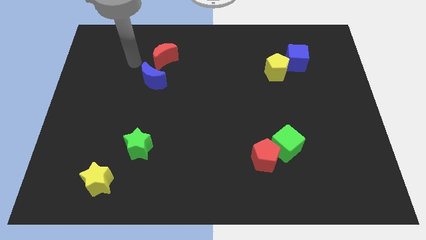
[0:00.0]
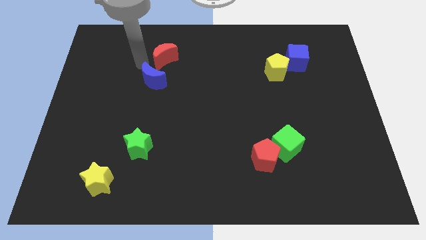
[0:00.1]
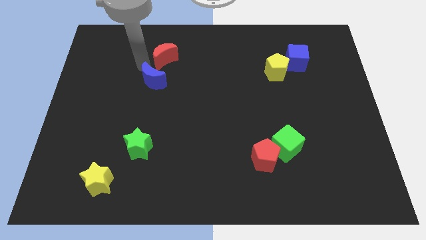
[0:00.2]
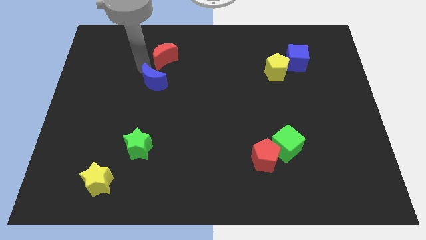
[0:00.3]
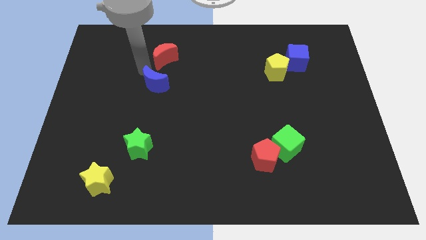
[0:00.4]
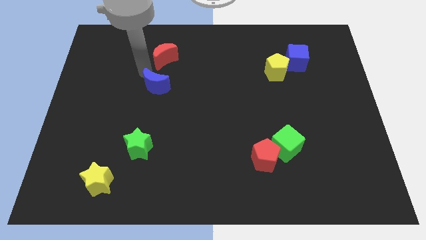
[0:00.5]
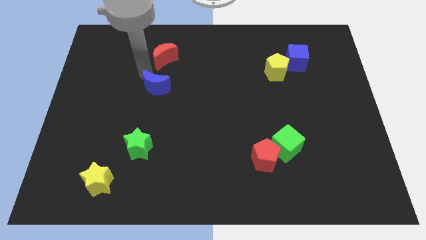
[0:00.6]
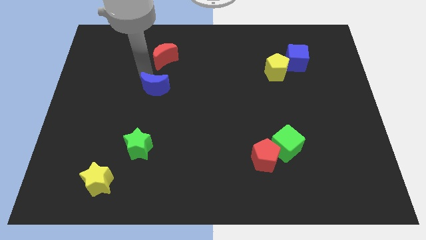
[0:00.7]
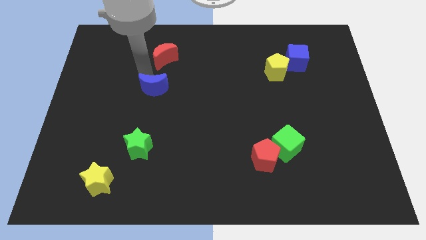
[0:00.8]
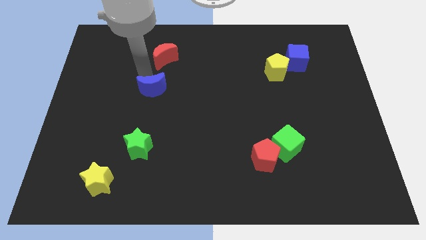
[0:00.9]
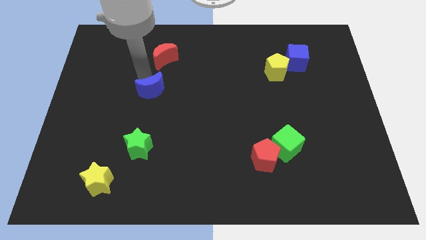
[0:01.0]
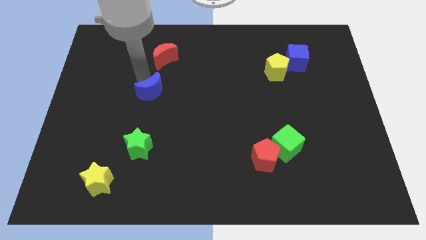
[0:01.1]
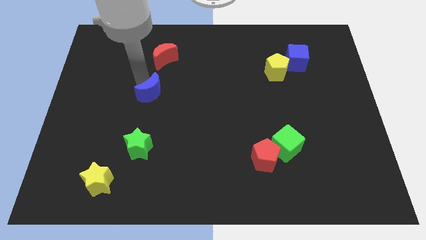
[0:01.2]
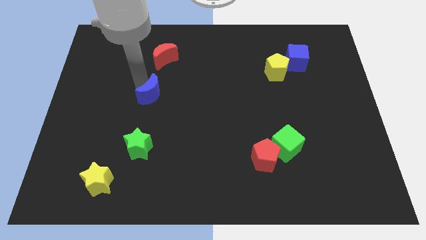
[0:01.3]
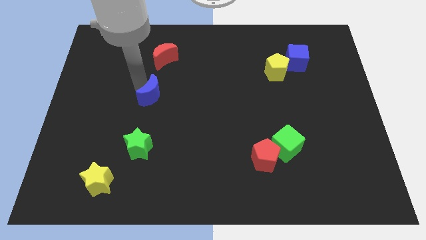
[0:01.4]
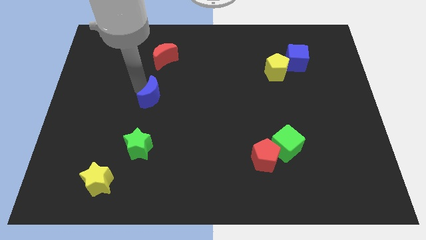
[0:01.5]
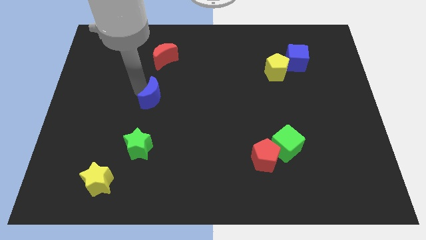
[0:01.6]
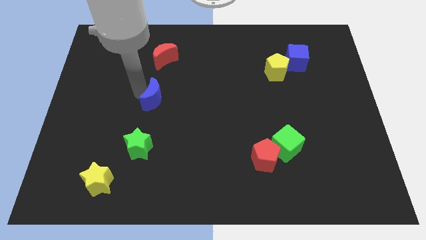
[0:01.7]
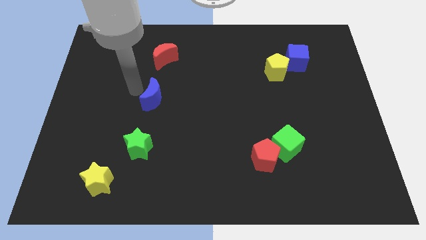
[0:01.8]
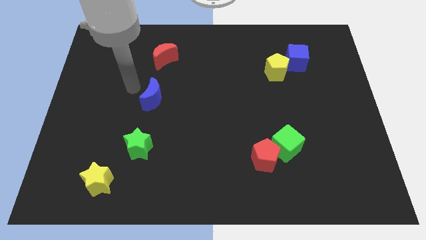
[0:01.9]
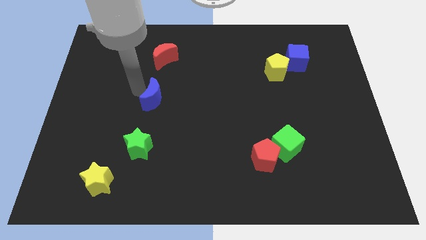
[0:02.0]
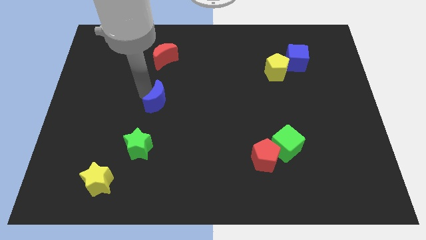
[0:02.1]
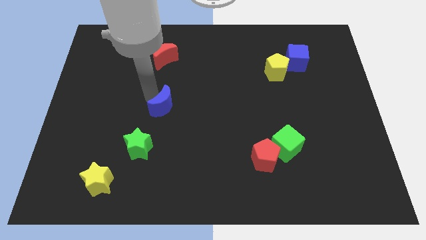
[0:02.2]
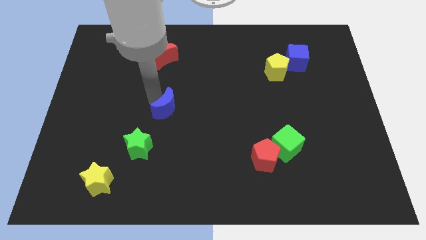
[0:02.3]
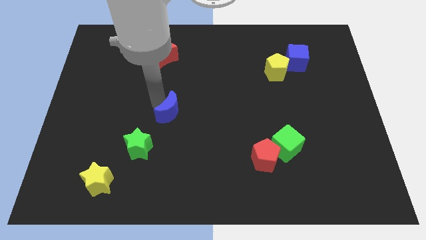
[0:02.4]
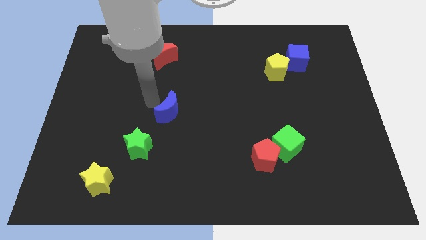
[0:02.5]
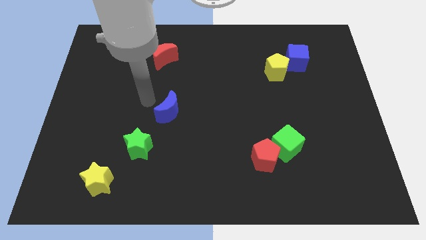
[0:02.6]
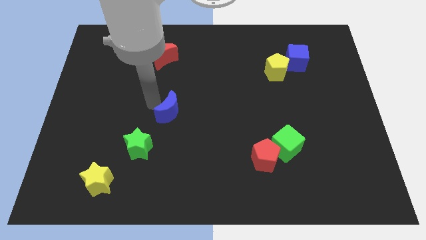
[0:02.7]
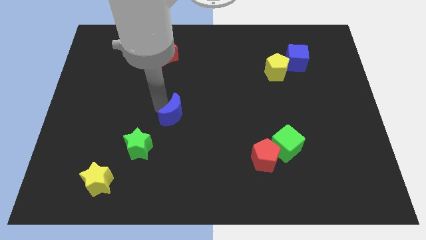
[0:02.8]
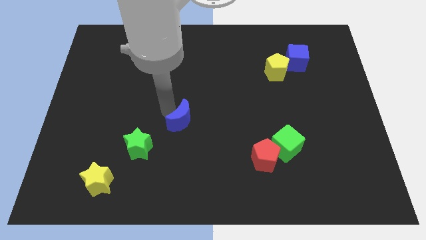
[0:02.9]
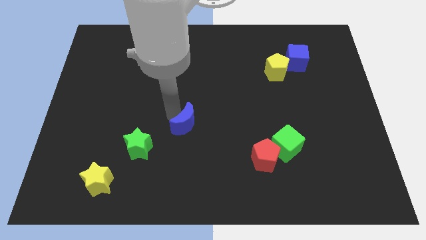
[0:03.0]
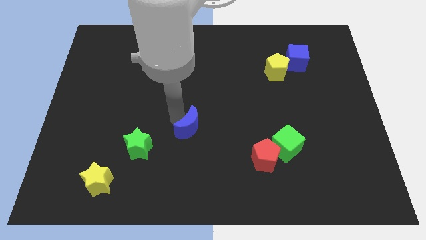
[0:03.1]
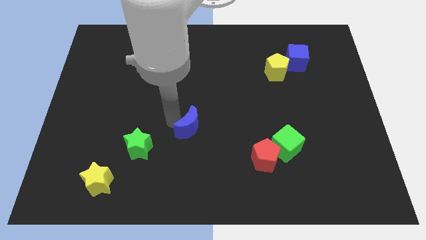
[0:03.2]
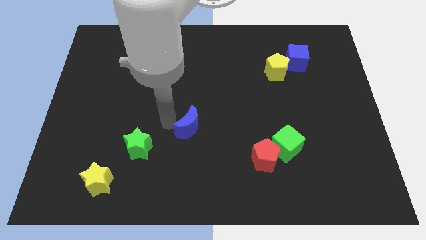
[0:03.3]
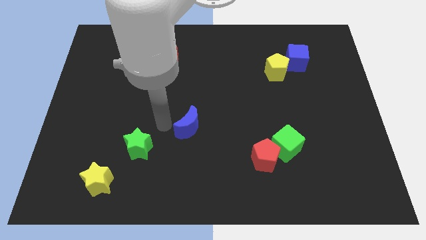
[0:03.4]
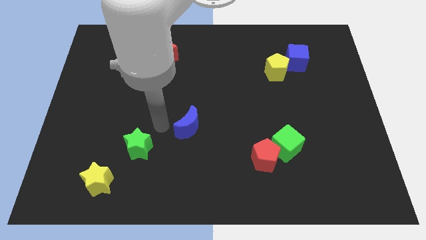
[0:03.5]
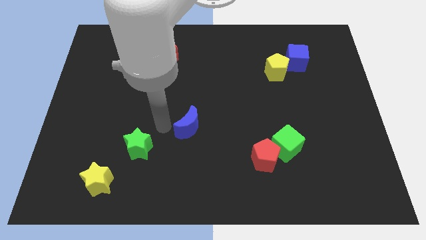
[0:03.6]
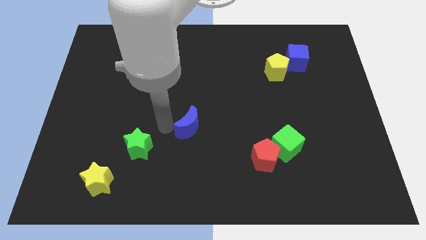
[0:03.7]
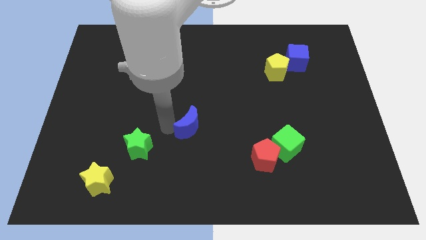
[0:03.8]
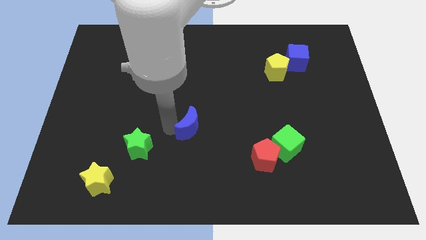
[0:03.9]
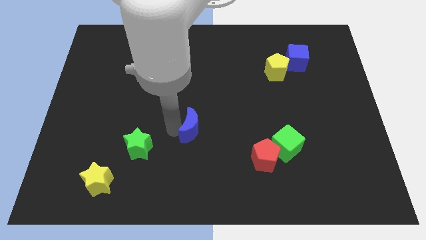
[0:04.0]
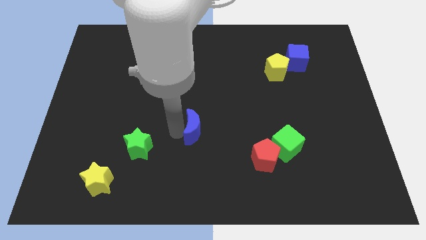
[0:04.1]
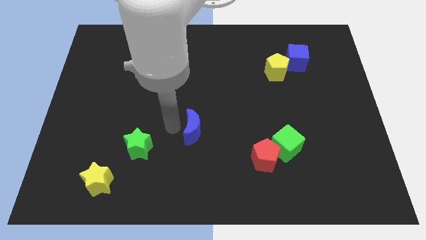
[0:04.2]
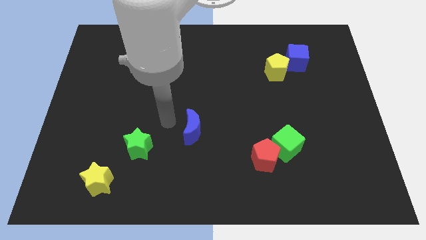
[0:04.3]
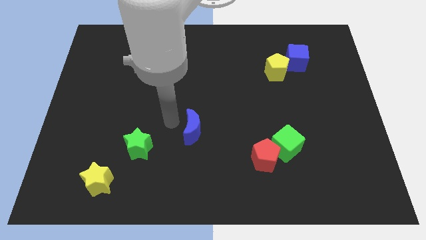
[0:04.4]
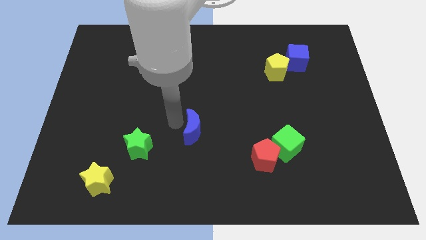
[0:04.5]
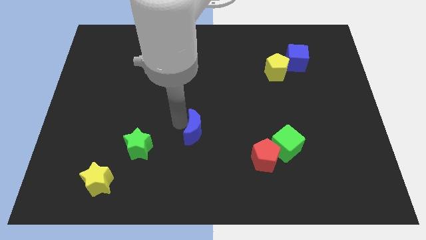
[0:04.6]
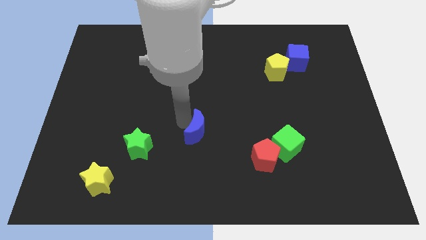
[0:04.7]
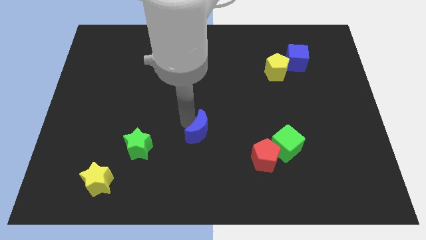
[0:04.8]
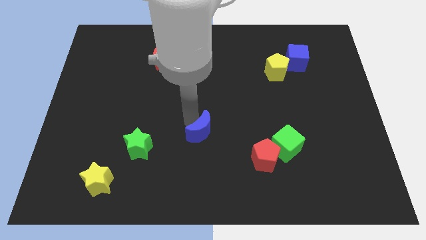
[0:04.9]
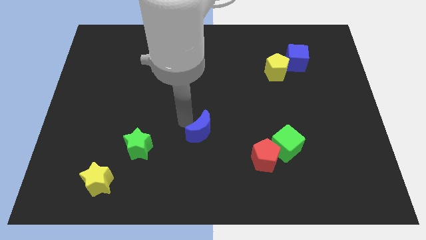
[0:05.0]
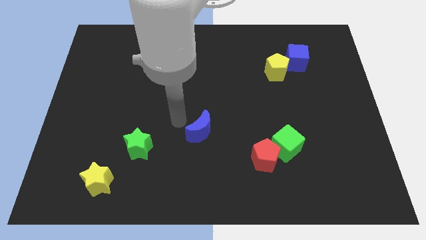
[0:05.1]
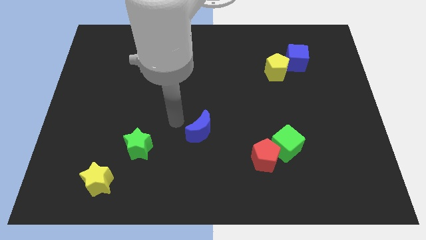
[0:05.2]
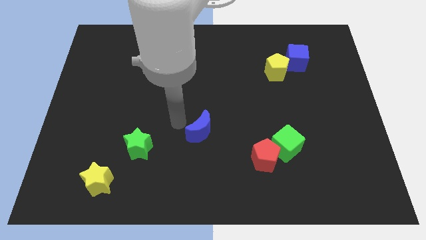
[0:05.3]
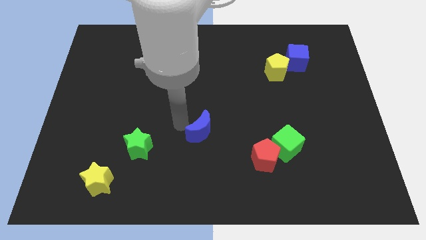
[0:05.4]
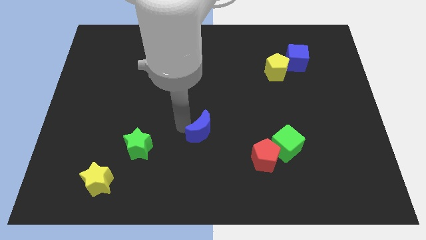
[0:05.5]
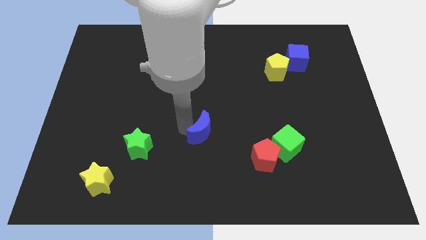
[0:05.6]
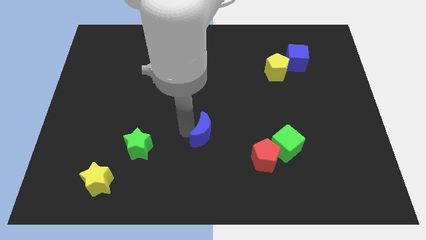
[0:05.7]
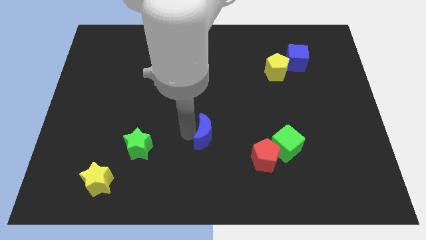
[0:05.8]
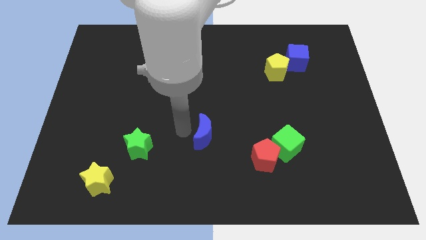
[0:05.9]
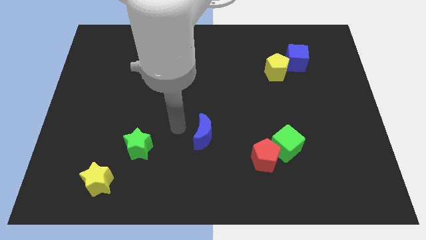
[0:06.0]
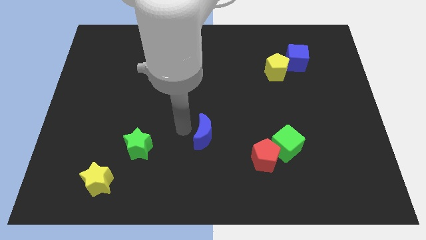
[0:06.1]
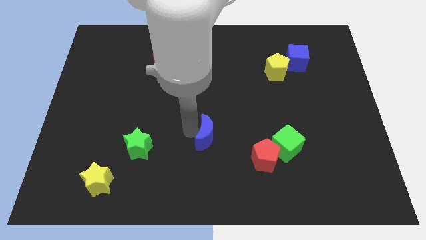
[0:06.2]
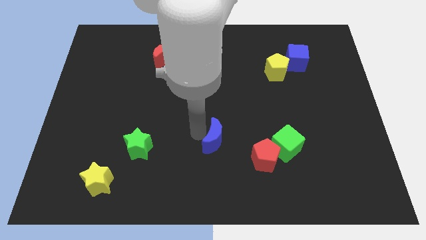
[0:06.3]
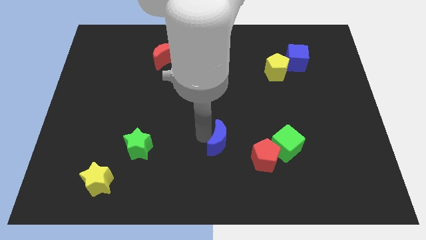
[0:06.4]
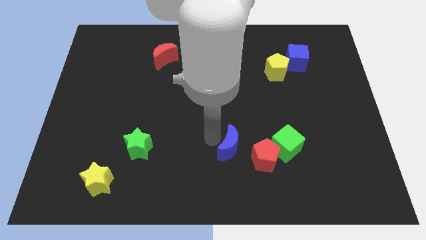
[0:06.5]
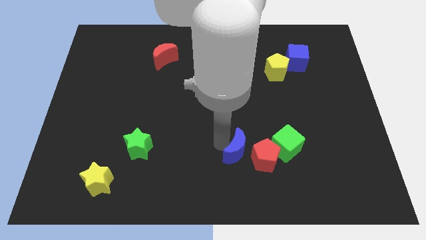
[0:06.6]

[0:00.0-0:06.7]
push the blue moon close to the red pentagon

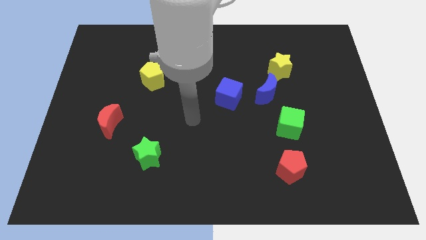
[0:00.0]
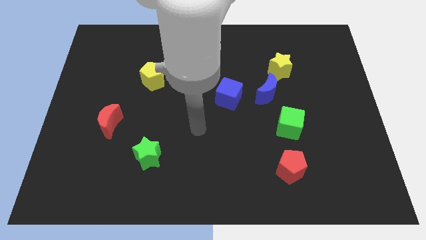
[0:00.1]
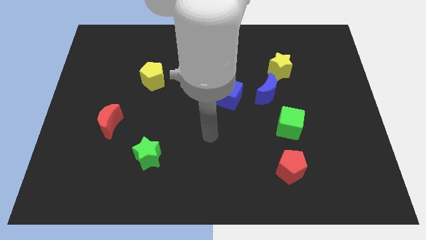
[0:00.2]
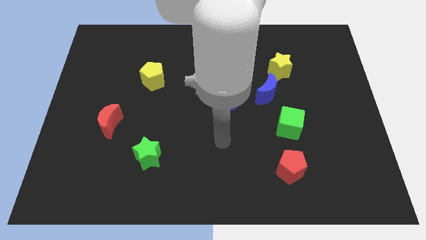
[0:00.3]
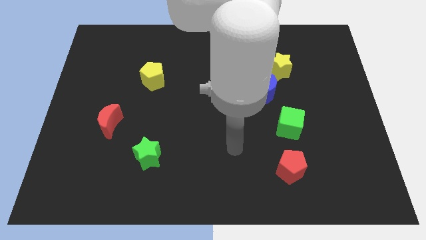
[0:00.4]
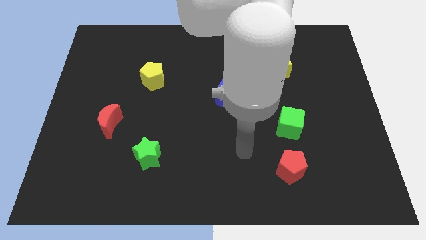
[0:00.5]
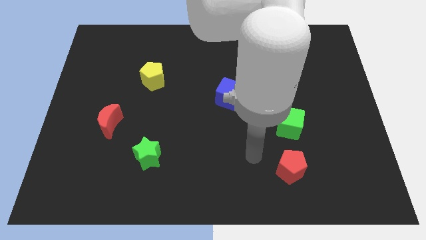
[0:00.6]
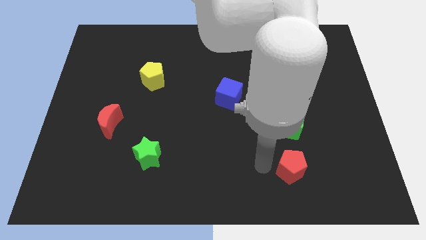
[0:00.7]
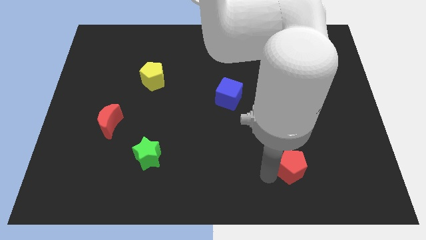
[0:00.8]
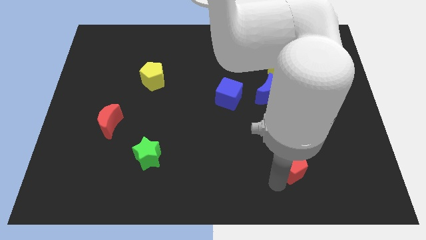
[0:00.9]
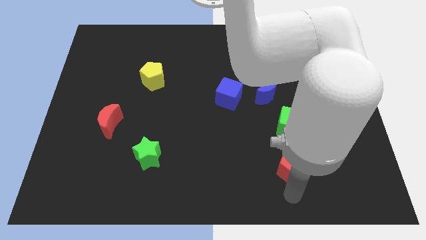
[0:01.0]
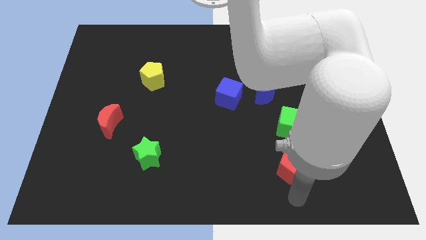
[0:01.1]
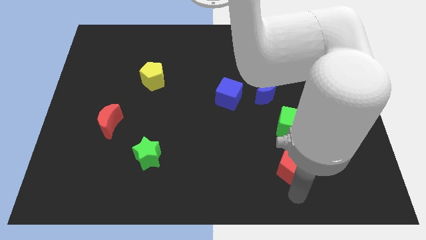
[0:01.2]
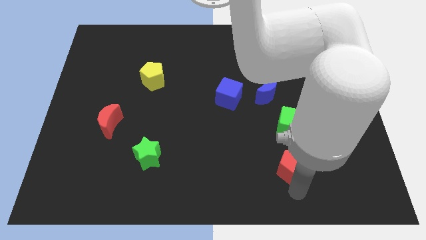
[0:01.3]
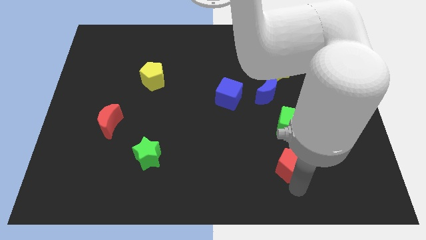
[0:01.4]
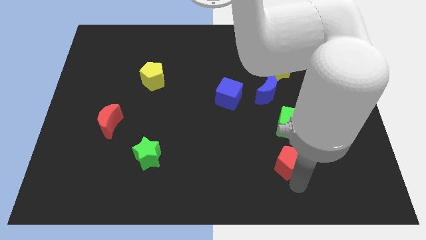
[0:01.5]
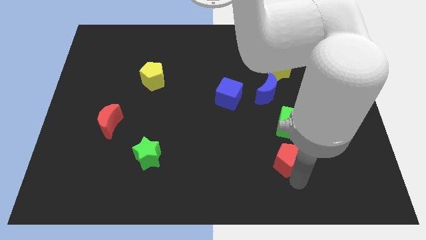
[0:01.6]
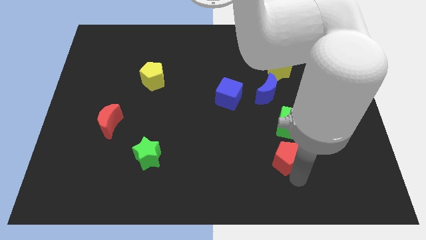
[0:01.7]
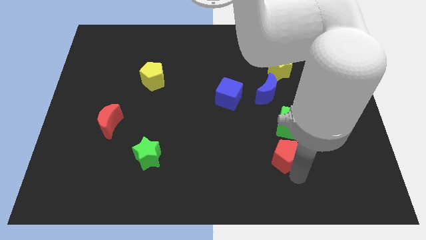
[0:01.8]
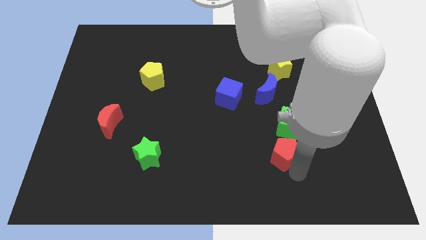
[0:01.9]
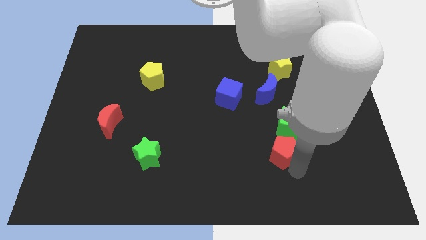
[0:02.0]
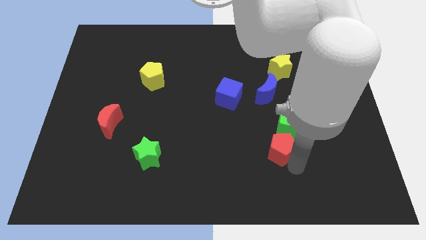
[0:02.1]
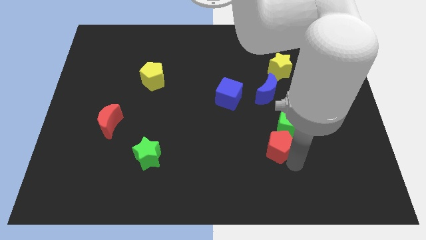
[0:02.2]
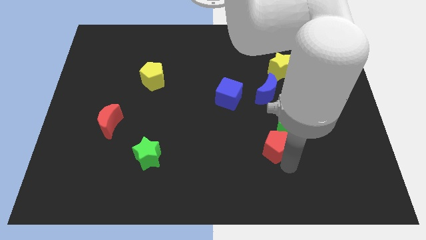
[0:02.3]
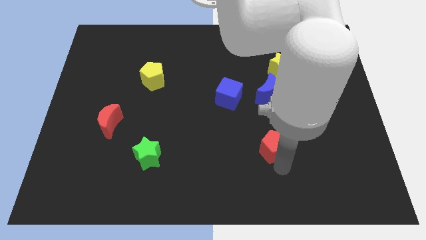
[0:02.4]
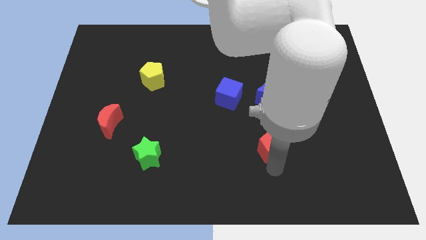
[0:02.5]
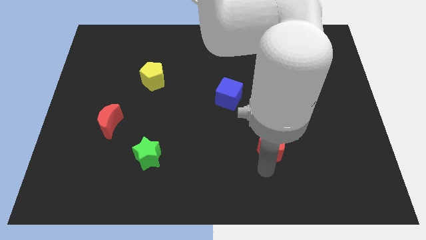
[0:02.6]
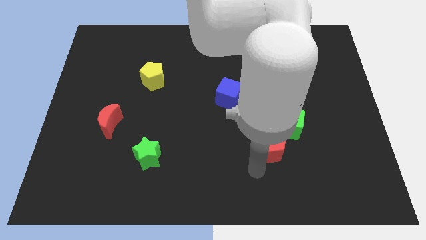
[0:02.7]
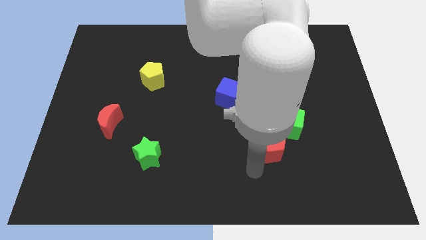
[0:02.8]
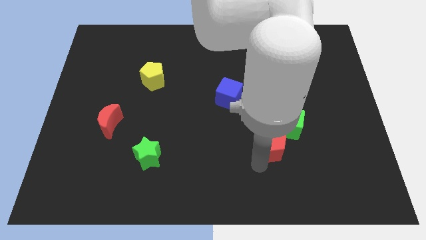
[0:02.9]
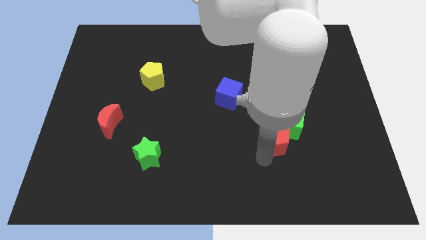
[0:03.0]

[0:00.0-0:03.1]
slide the red pentagon next to the green cube
